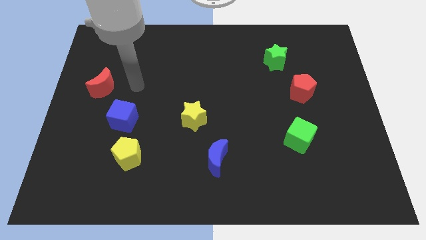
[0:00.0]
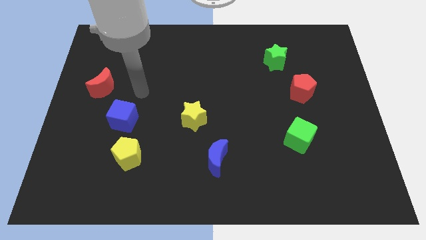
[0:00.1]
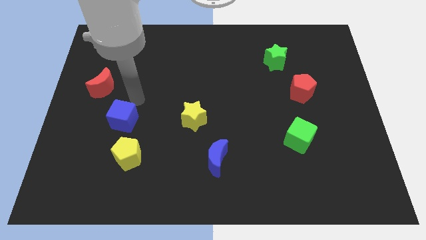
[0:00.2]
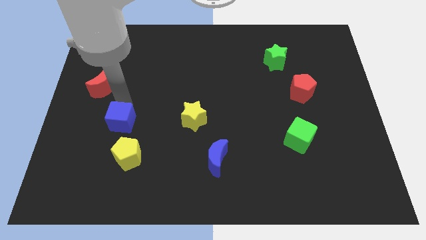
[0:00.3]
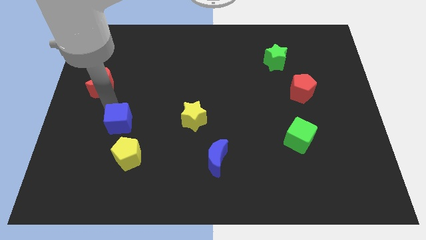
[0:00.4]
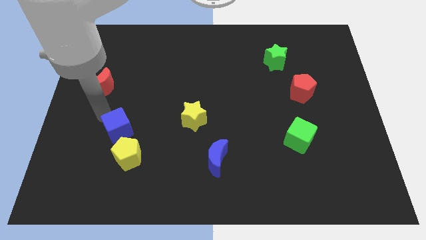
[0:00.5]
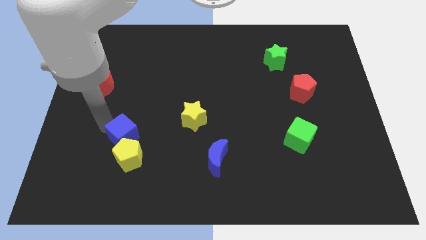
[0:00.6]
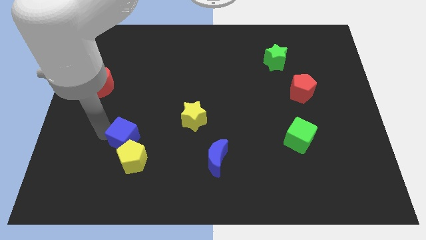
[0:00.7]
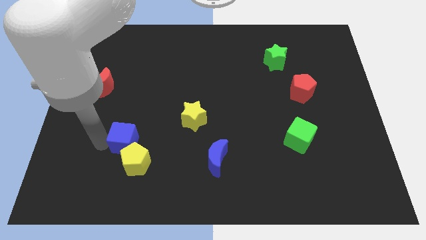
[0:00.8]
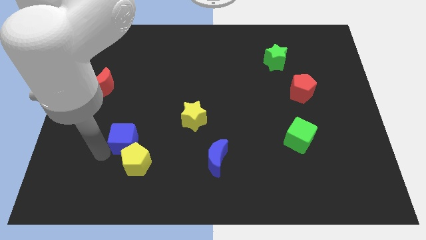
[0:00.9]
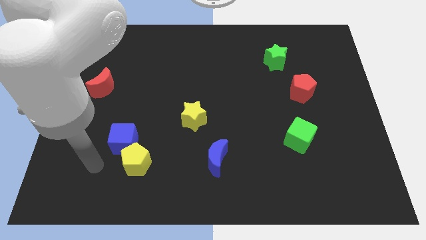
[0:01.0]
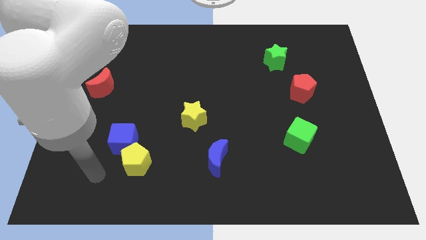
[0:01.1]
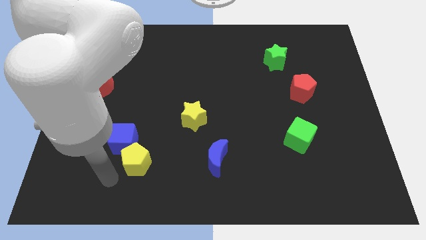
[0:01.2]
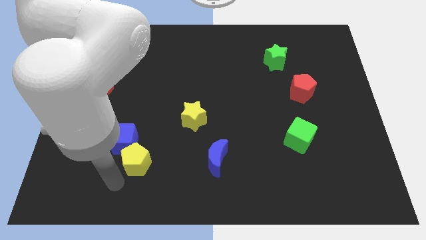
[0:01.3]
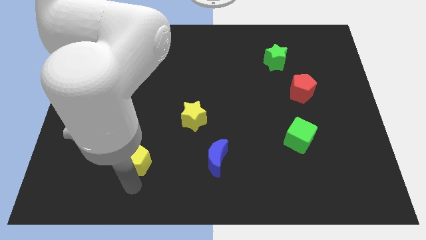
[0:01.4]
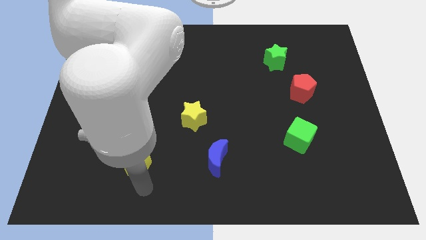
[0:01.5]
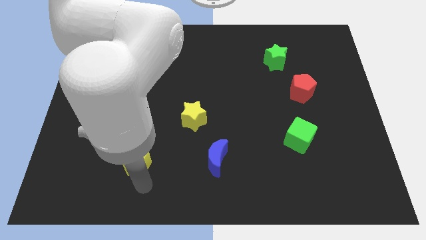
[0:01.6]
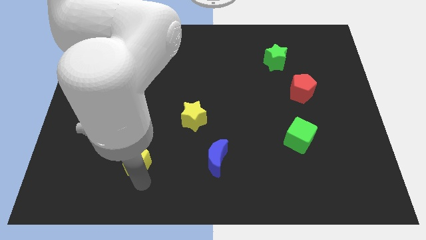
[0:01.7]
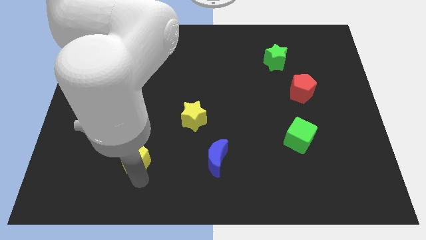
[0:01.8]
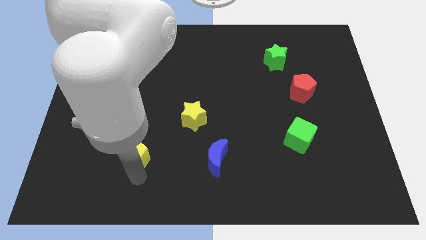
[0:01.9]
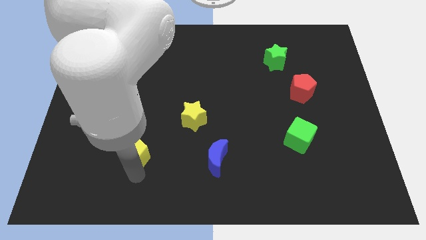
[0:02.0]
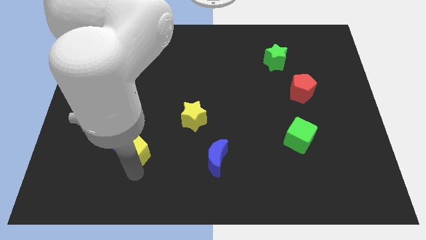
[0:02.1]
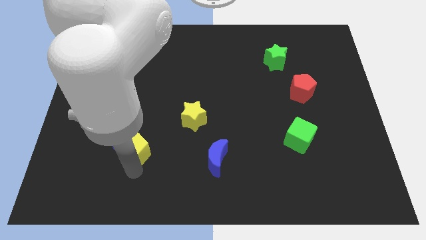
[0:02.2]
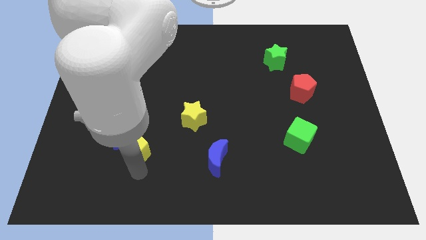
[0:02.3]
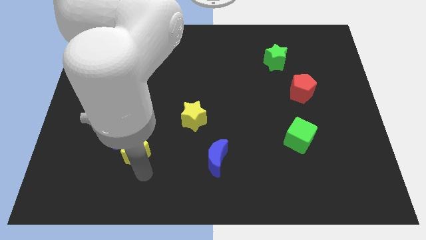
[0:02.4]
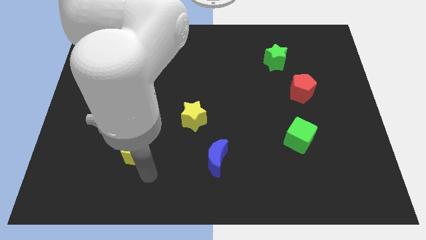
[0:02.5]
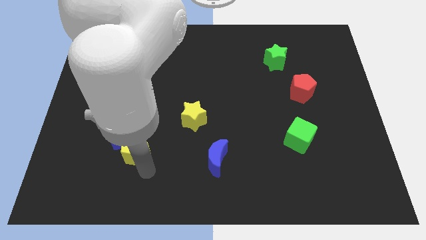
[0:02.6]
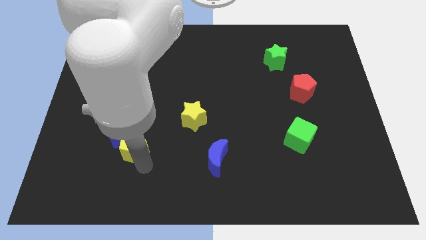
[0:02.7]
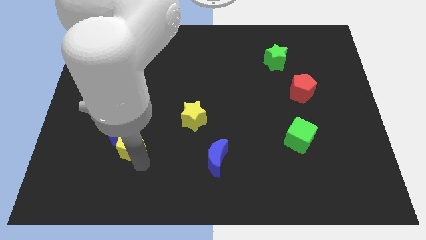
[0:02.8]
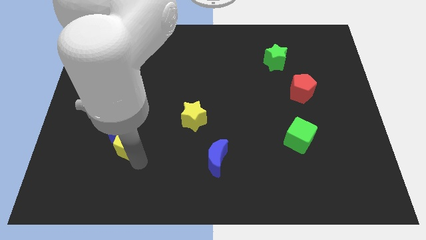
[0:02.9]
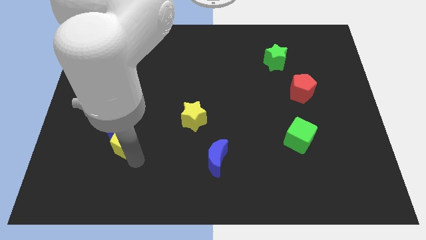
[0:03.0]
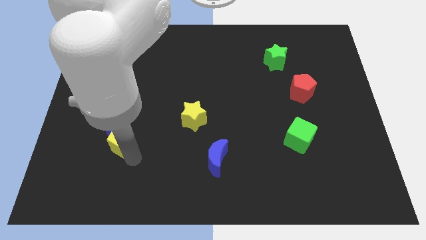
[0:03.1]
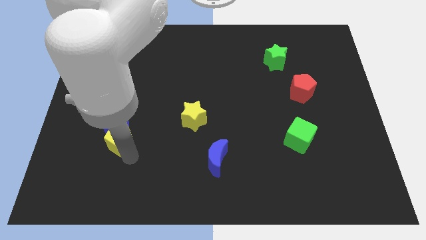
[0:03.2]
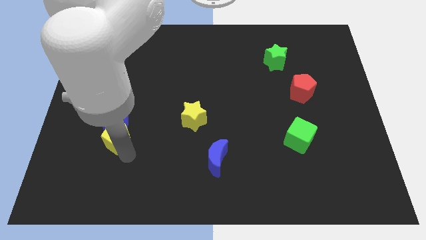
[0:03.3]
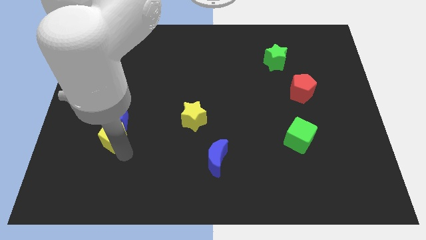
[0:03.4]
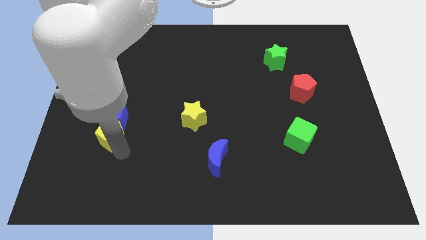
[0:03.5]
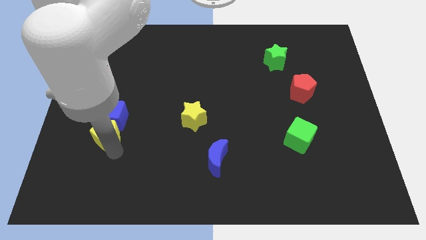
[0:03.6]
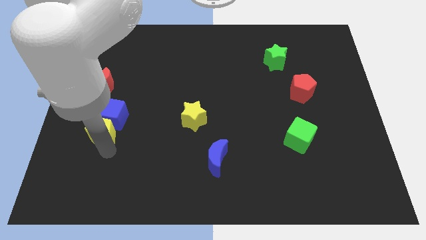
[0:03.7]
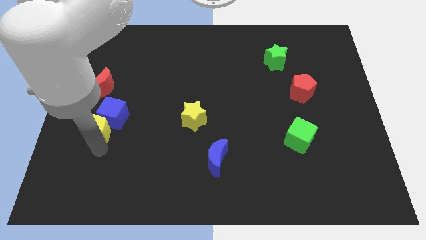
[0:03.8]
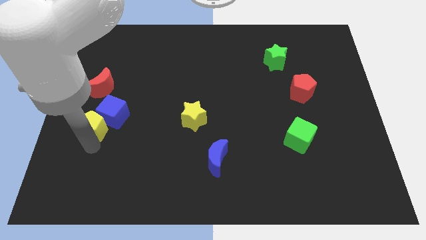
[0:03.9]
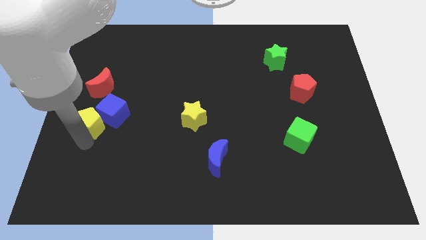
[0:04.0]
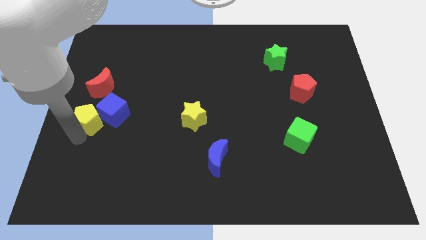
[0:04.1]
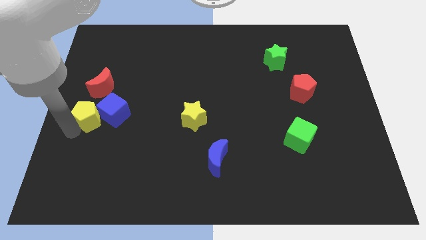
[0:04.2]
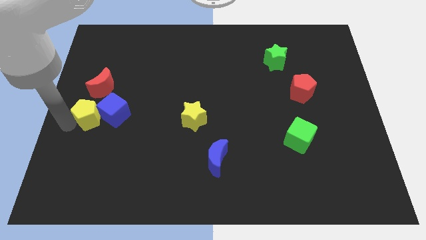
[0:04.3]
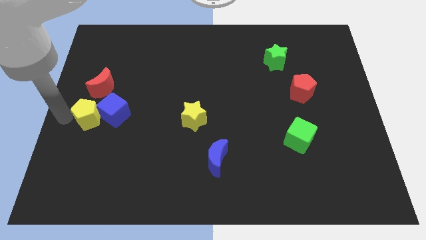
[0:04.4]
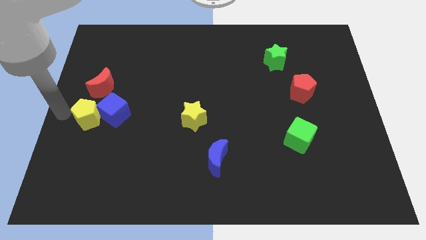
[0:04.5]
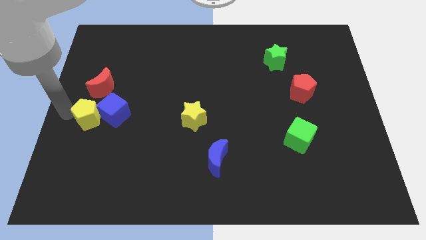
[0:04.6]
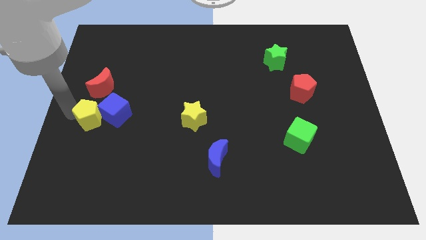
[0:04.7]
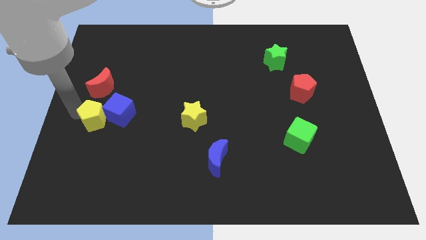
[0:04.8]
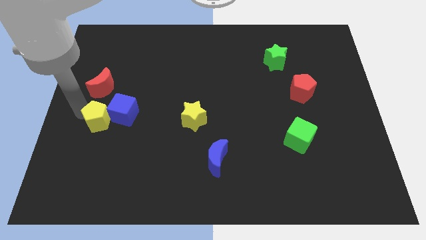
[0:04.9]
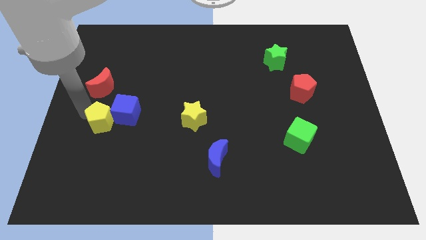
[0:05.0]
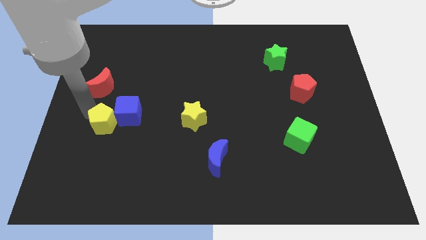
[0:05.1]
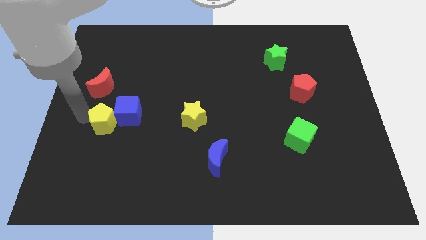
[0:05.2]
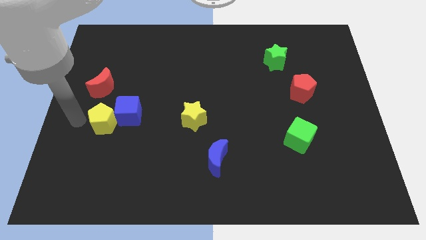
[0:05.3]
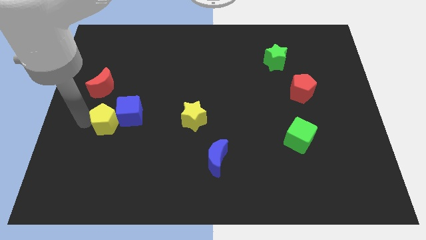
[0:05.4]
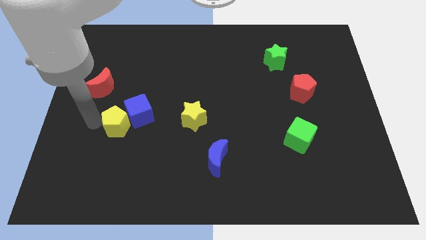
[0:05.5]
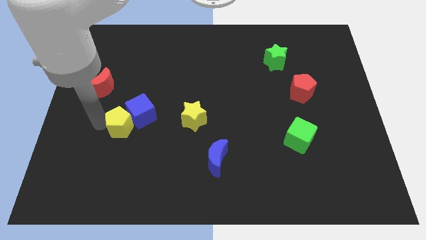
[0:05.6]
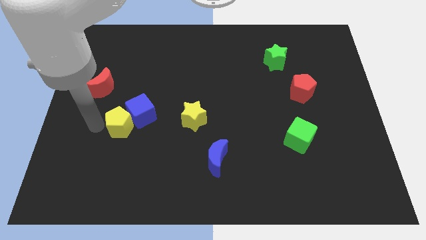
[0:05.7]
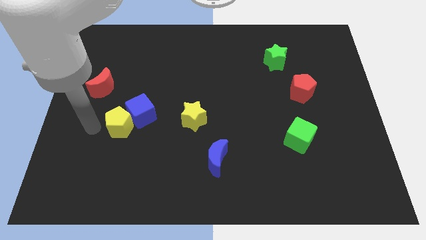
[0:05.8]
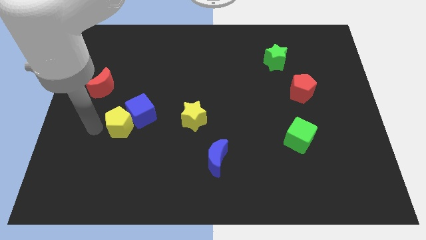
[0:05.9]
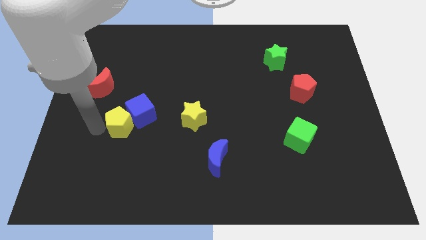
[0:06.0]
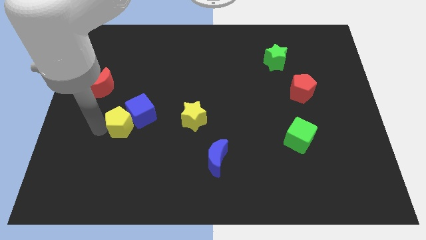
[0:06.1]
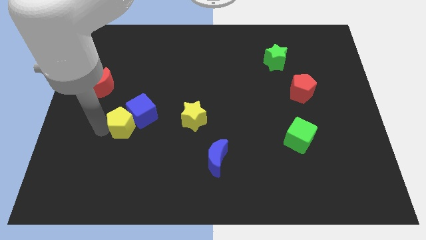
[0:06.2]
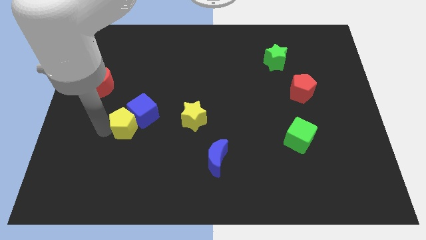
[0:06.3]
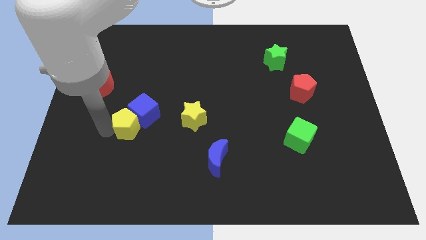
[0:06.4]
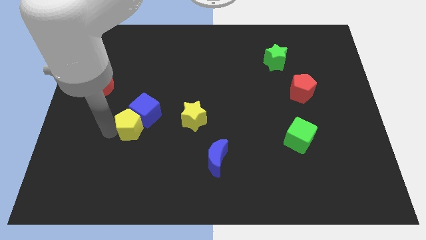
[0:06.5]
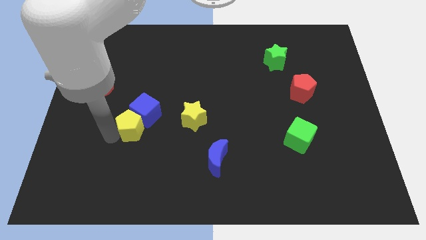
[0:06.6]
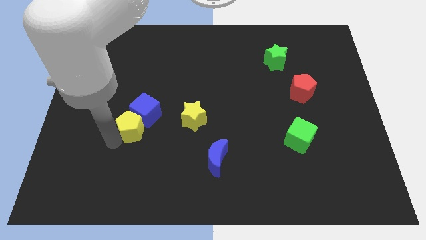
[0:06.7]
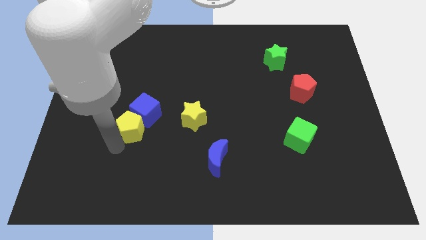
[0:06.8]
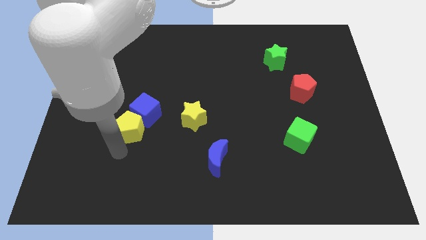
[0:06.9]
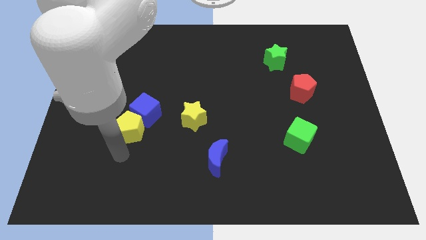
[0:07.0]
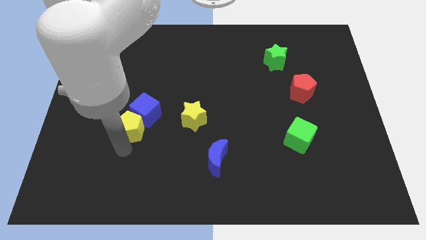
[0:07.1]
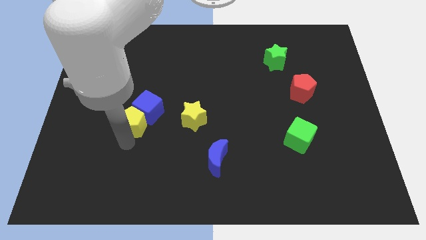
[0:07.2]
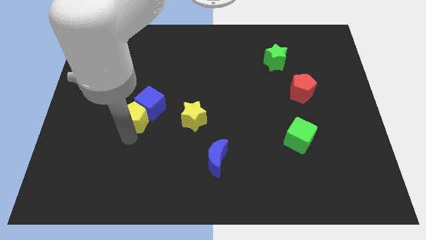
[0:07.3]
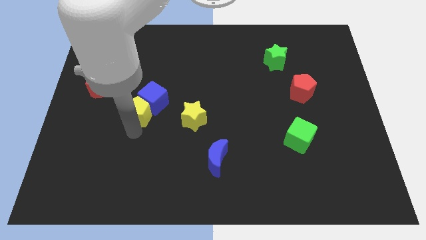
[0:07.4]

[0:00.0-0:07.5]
put the yellow pentagon to the bottom right side of the red moon
